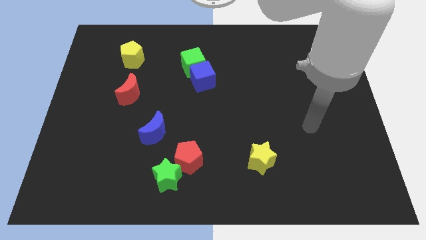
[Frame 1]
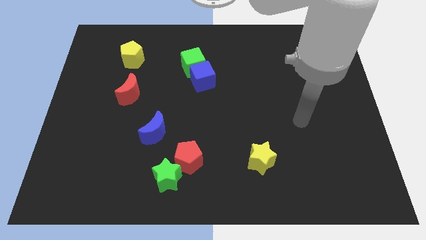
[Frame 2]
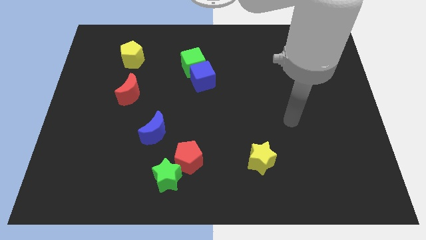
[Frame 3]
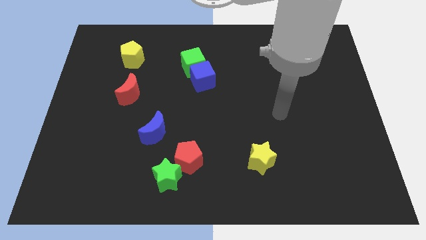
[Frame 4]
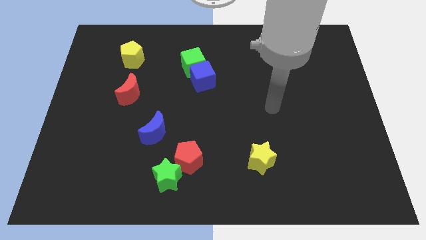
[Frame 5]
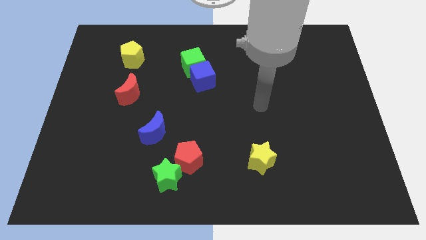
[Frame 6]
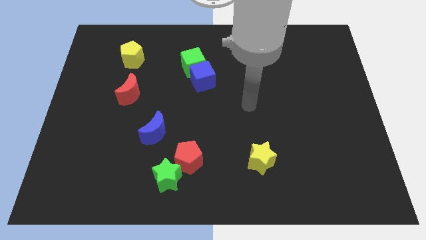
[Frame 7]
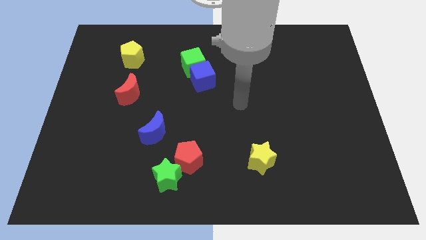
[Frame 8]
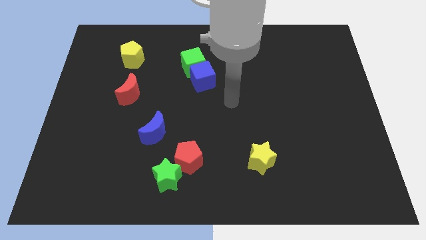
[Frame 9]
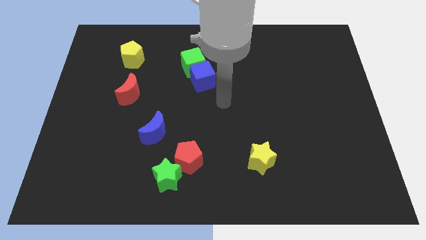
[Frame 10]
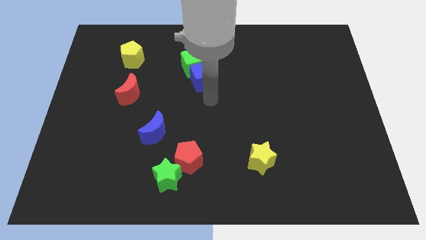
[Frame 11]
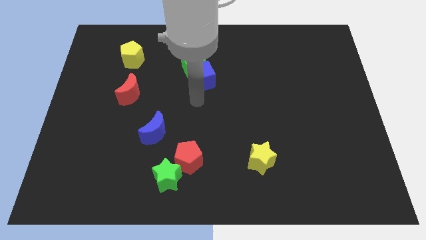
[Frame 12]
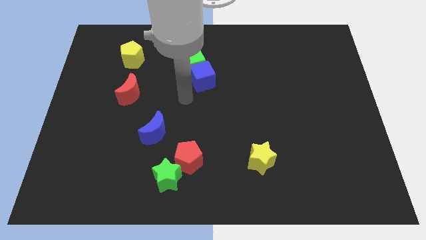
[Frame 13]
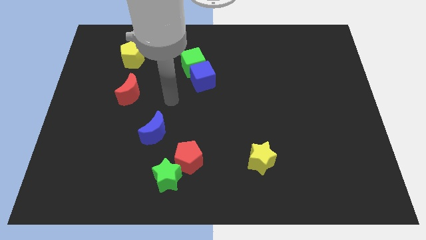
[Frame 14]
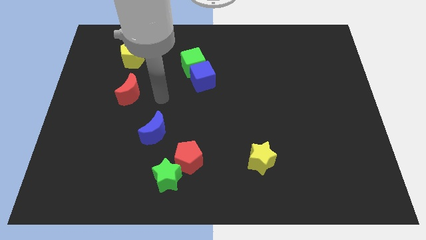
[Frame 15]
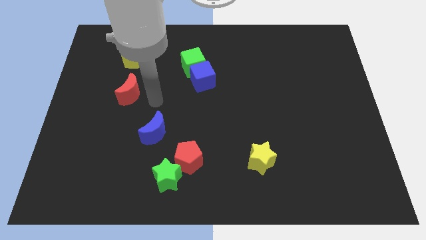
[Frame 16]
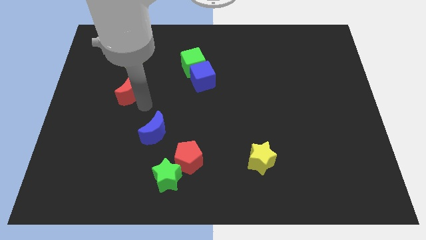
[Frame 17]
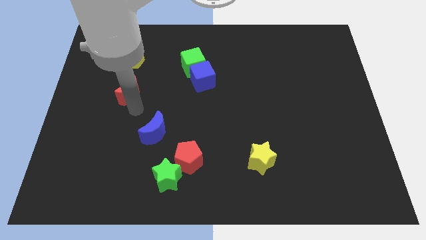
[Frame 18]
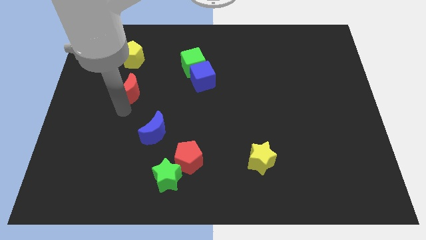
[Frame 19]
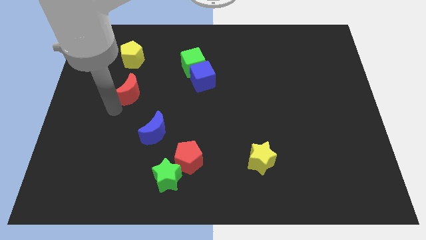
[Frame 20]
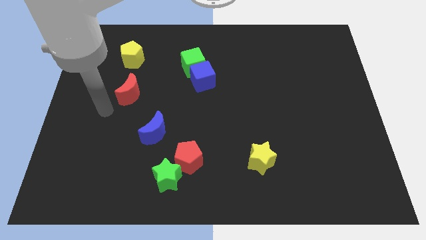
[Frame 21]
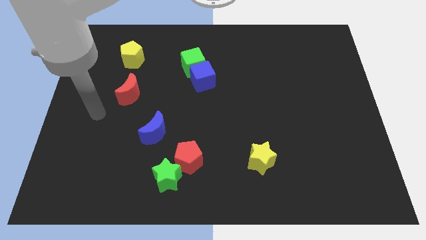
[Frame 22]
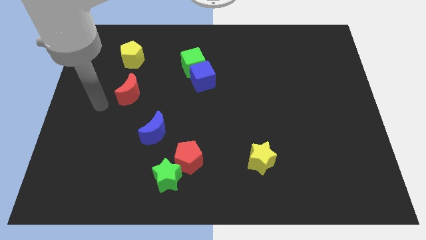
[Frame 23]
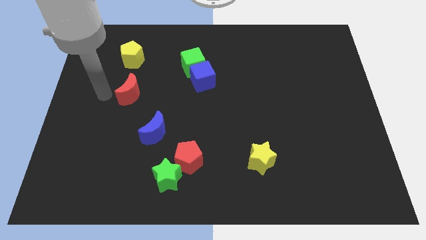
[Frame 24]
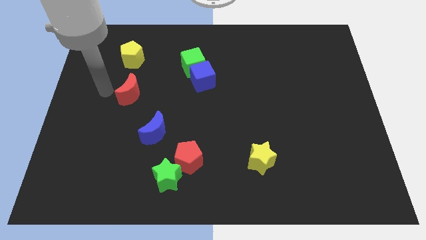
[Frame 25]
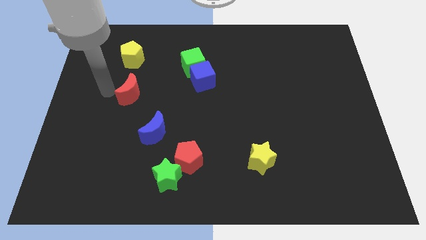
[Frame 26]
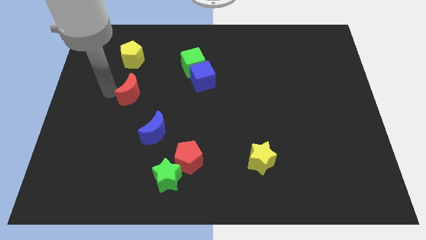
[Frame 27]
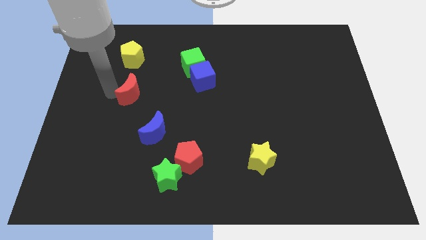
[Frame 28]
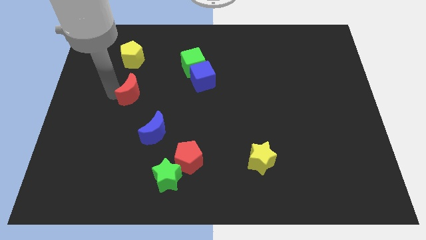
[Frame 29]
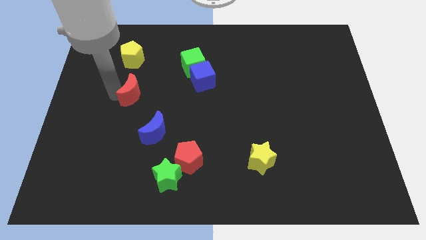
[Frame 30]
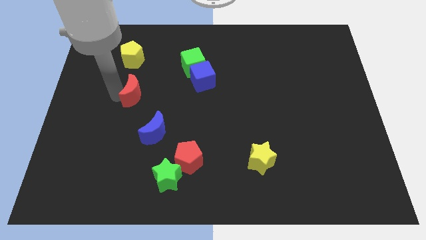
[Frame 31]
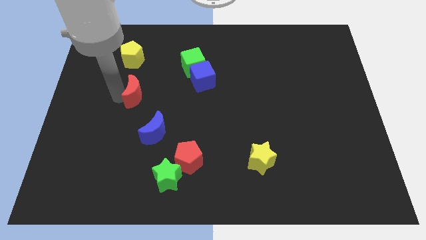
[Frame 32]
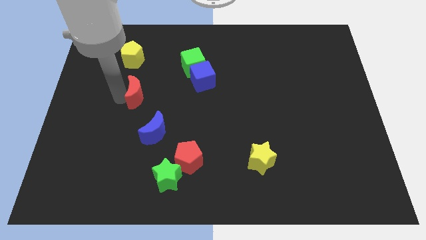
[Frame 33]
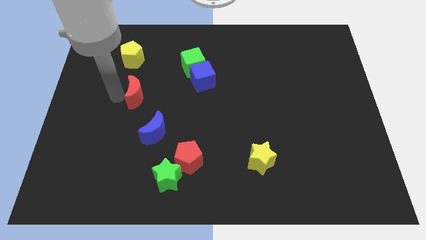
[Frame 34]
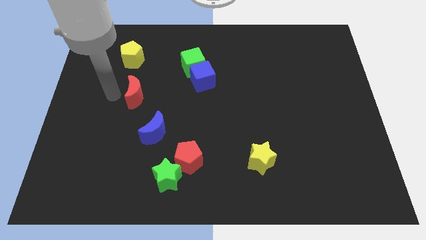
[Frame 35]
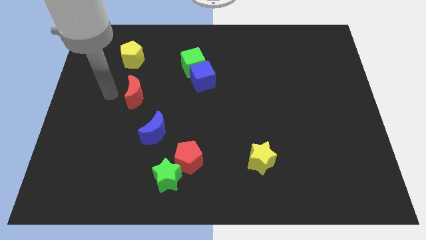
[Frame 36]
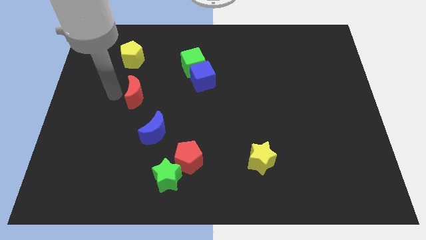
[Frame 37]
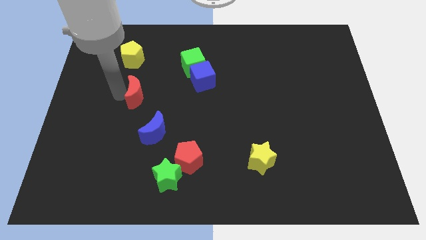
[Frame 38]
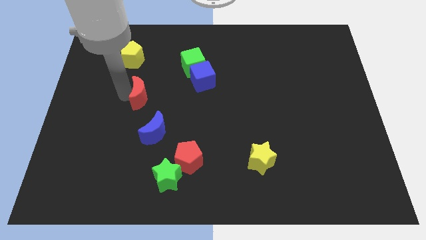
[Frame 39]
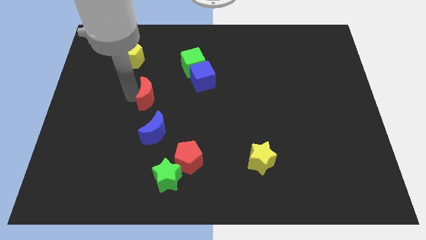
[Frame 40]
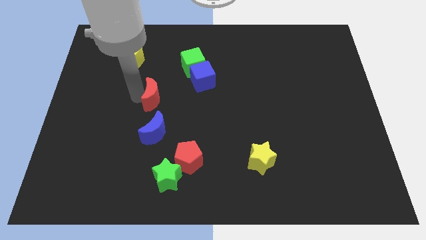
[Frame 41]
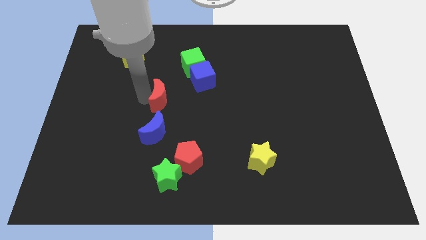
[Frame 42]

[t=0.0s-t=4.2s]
slide the red moon right a little bit

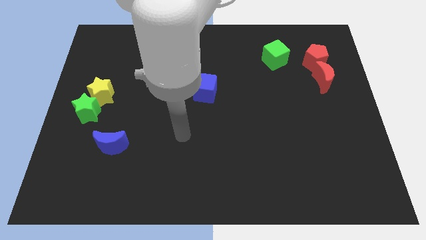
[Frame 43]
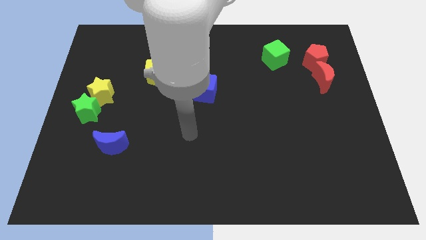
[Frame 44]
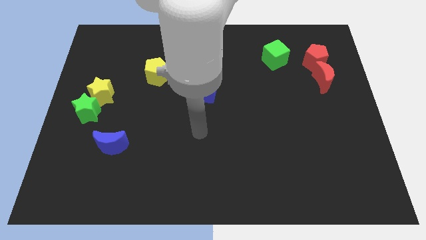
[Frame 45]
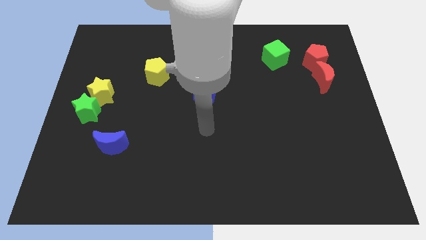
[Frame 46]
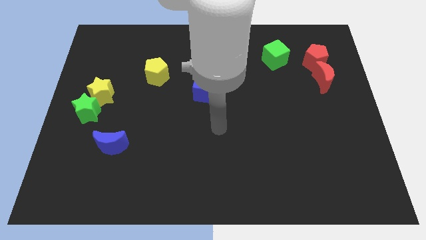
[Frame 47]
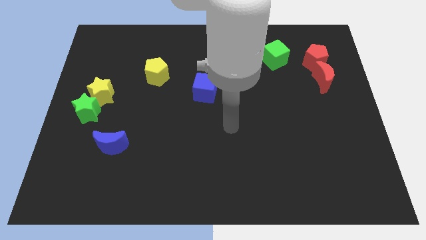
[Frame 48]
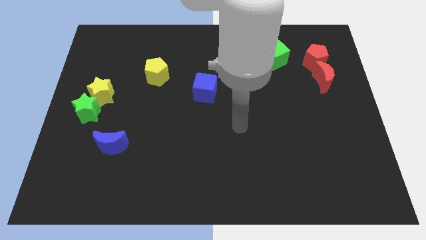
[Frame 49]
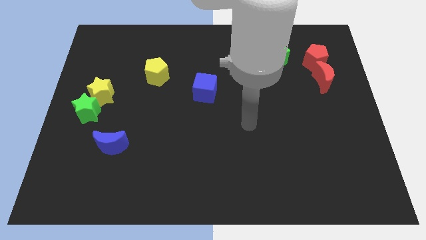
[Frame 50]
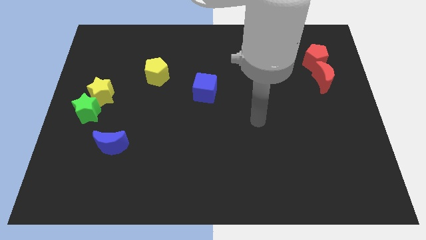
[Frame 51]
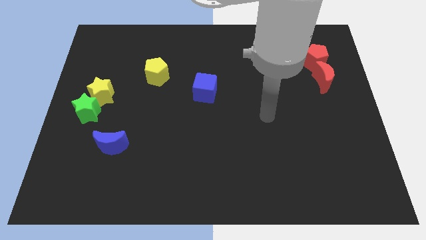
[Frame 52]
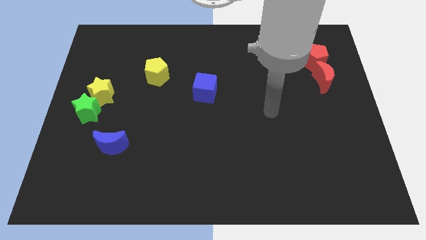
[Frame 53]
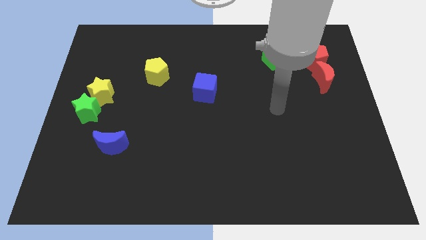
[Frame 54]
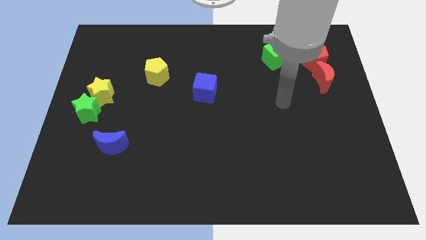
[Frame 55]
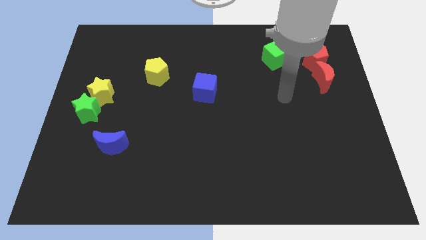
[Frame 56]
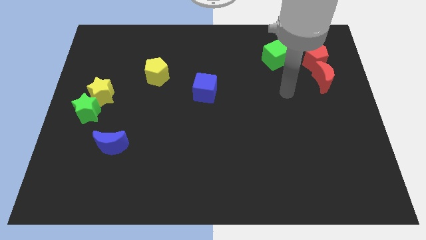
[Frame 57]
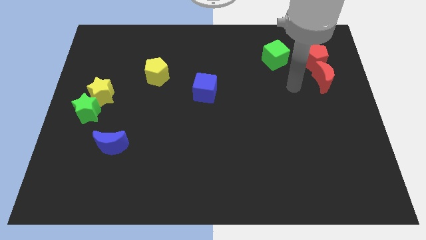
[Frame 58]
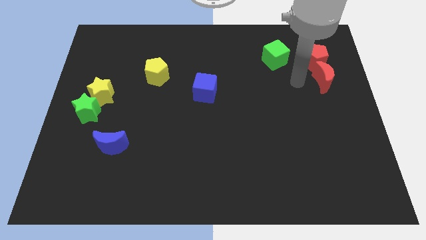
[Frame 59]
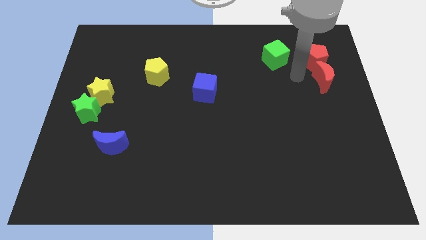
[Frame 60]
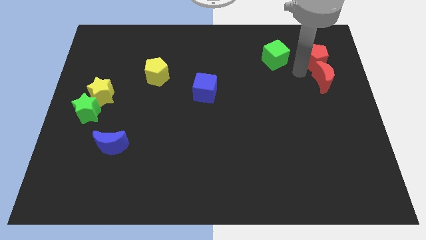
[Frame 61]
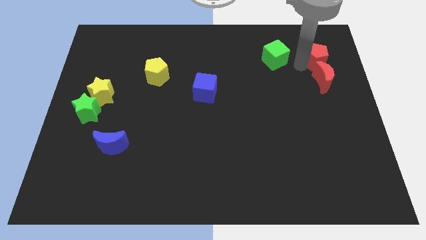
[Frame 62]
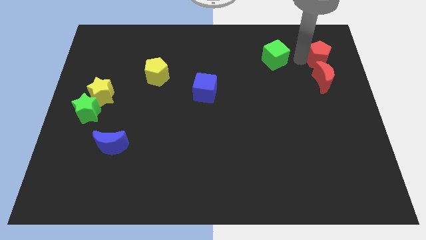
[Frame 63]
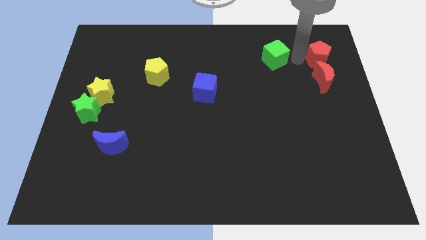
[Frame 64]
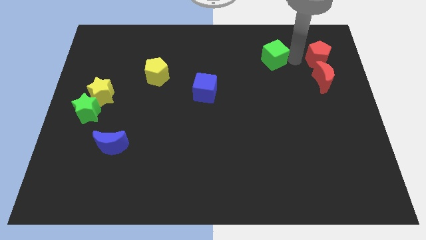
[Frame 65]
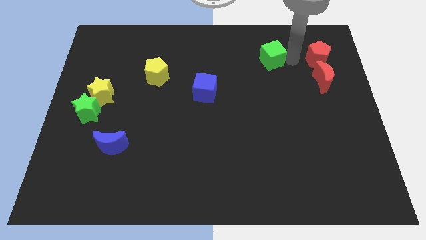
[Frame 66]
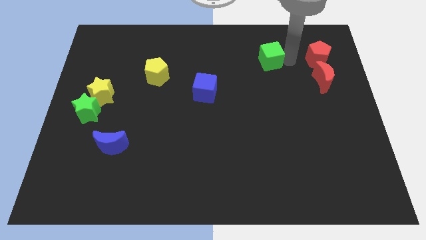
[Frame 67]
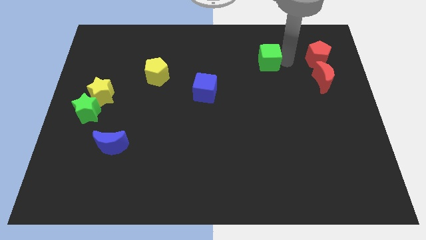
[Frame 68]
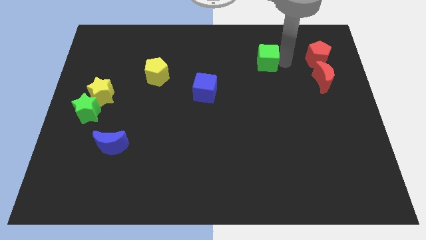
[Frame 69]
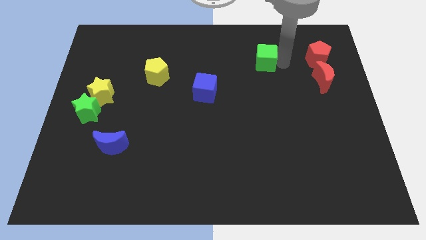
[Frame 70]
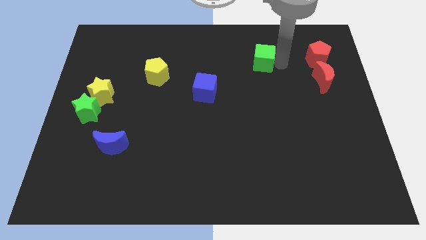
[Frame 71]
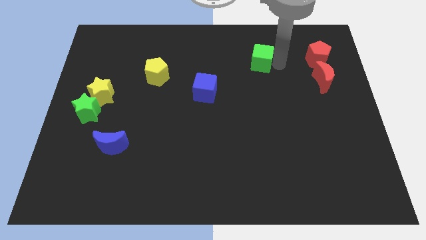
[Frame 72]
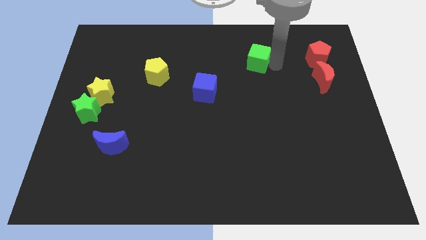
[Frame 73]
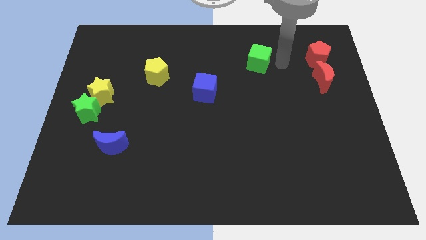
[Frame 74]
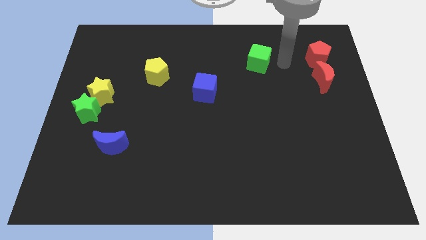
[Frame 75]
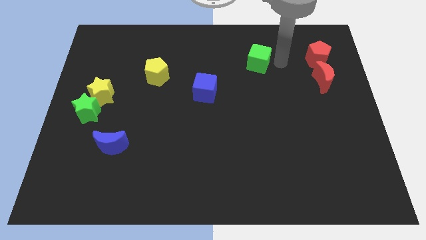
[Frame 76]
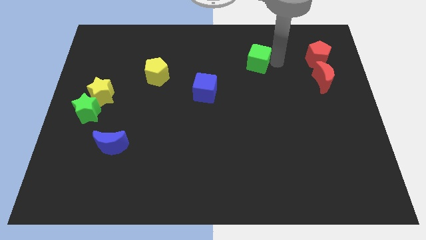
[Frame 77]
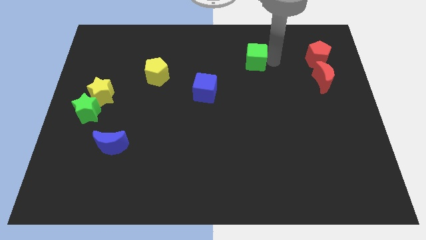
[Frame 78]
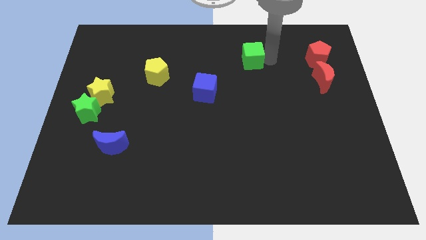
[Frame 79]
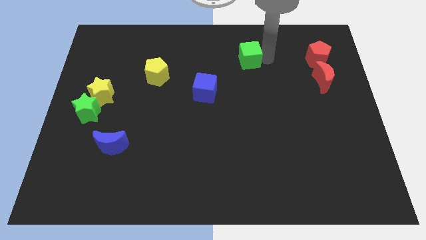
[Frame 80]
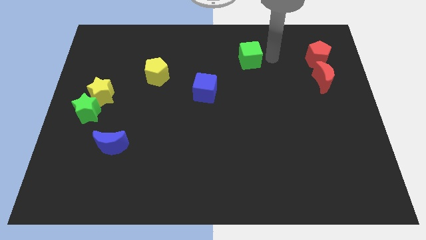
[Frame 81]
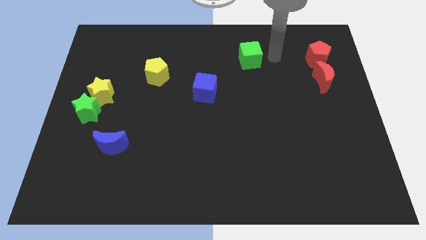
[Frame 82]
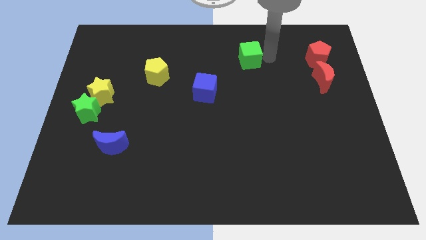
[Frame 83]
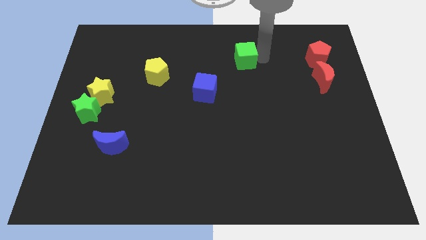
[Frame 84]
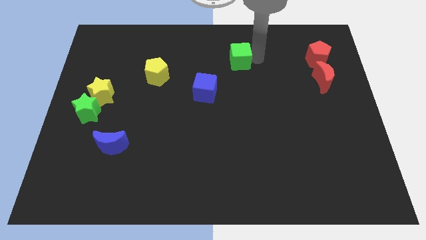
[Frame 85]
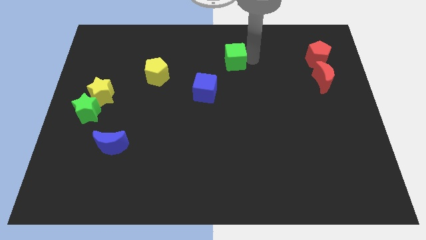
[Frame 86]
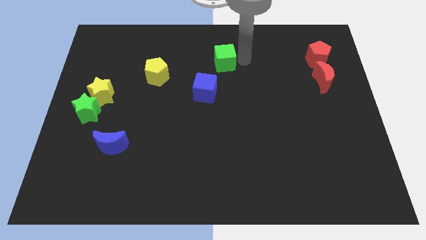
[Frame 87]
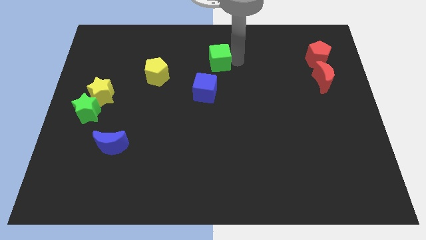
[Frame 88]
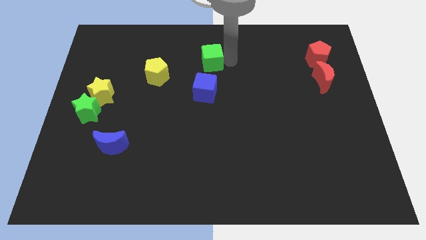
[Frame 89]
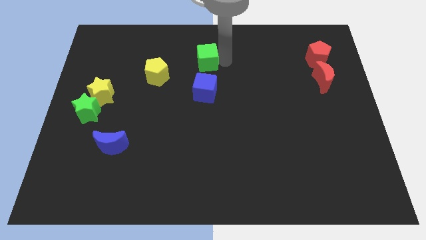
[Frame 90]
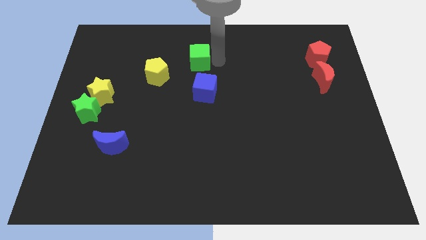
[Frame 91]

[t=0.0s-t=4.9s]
slide the green cube left
